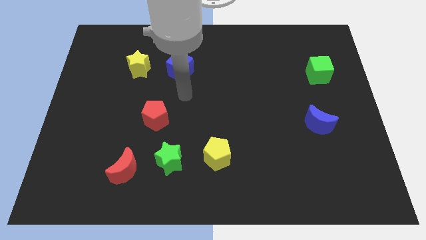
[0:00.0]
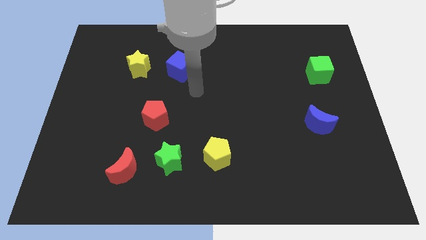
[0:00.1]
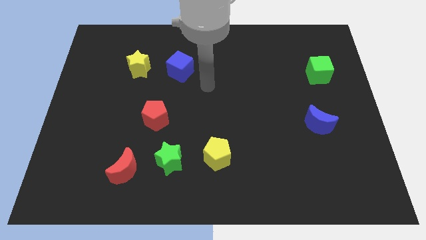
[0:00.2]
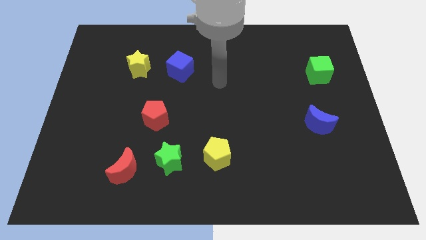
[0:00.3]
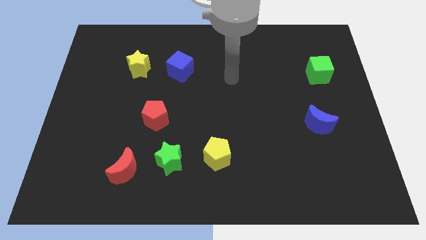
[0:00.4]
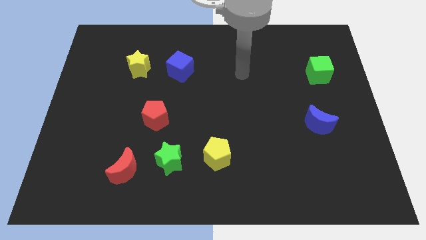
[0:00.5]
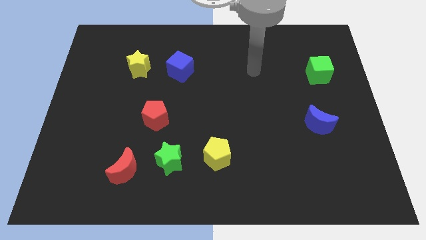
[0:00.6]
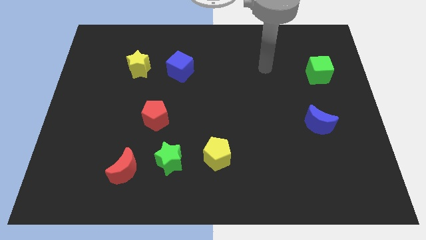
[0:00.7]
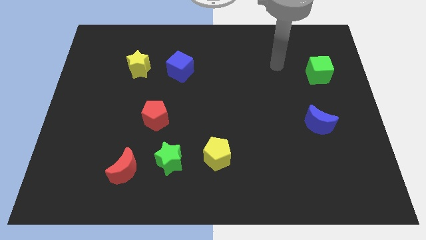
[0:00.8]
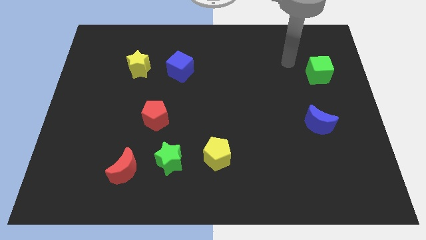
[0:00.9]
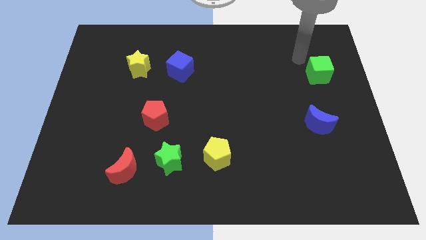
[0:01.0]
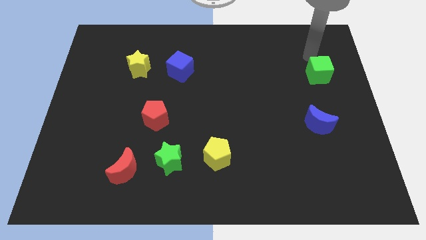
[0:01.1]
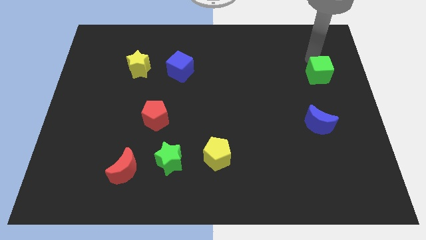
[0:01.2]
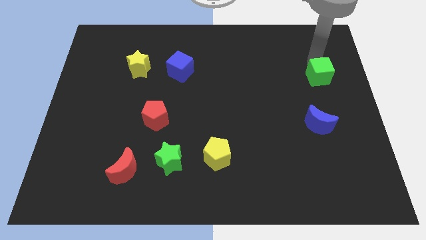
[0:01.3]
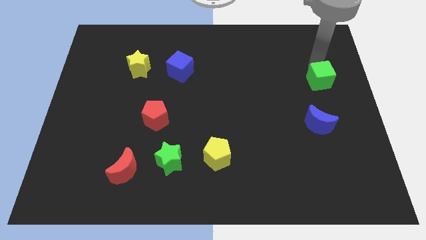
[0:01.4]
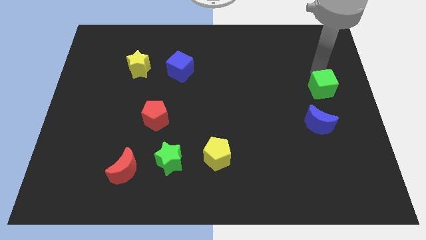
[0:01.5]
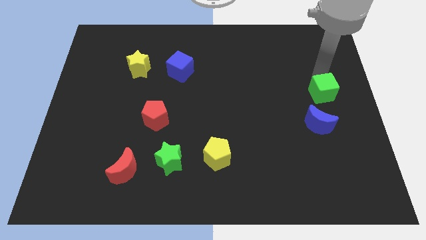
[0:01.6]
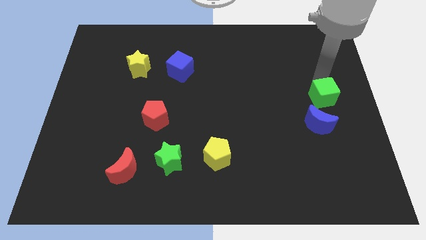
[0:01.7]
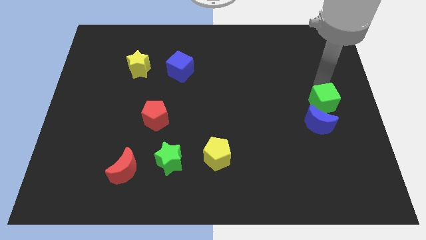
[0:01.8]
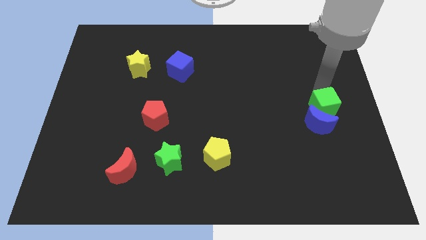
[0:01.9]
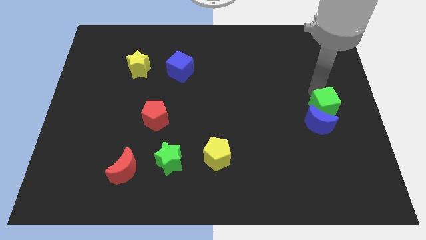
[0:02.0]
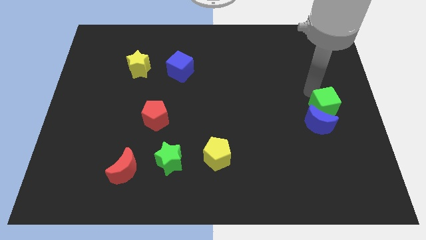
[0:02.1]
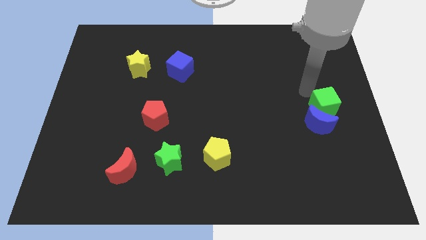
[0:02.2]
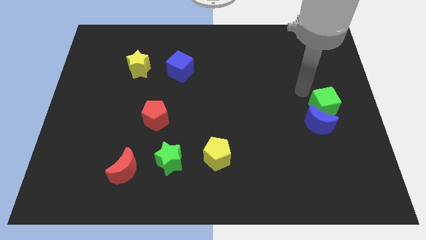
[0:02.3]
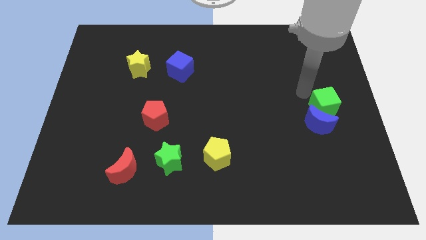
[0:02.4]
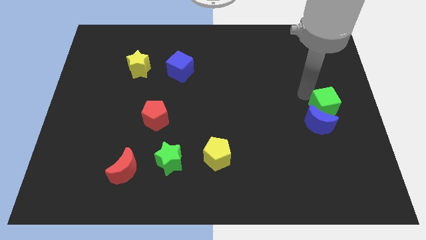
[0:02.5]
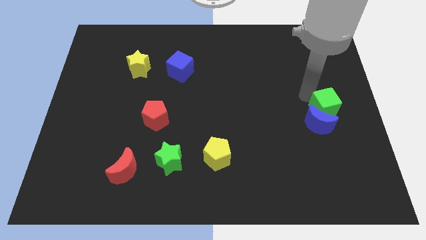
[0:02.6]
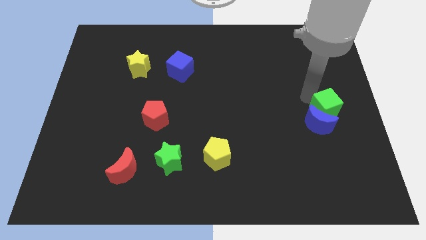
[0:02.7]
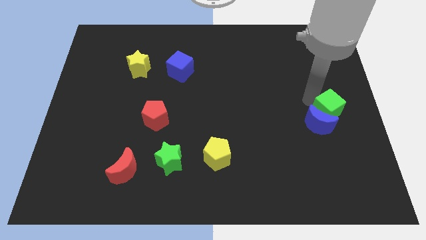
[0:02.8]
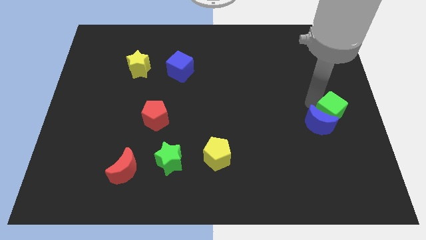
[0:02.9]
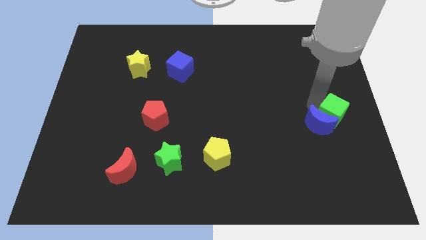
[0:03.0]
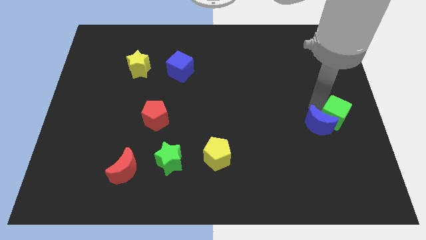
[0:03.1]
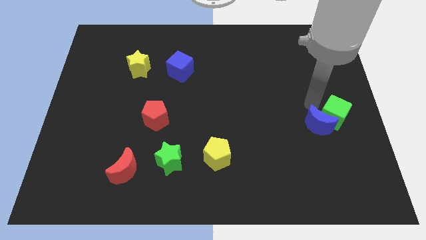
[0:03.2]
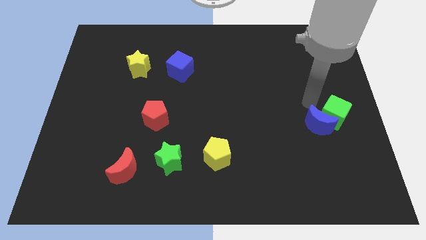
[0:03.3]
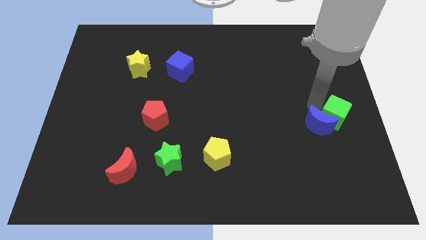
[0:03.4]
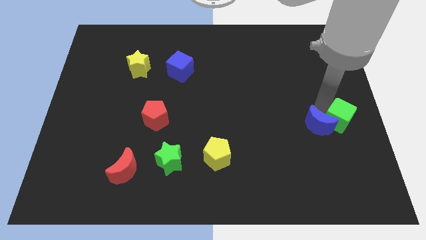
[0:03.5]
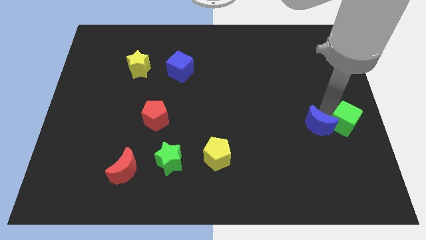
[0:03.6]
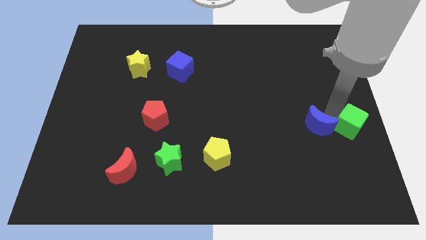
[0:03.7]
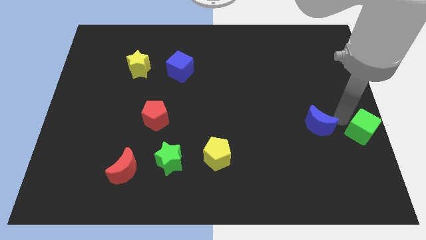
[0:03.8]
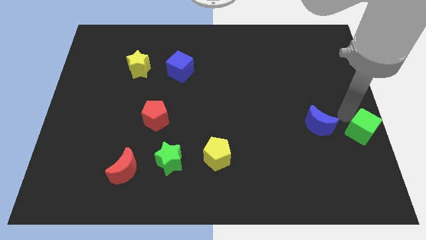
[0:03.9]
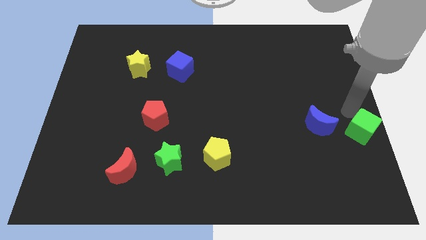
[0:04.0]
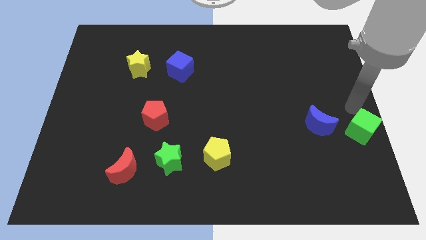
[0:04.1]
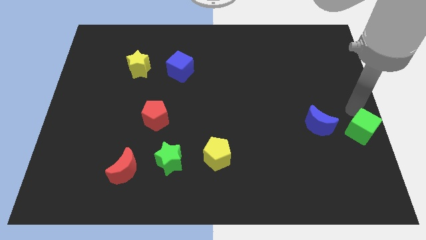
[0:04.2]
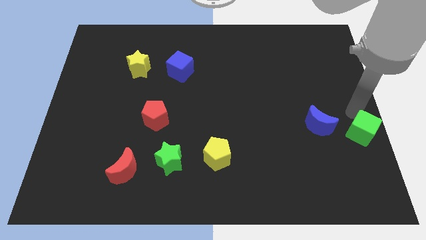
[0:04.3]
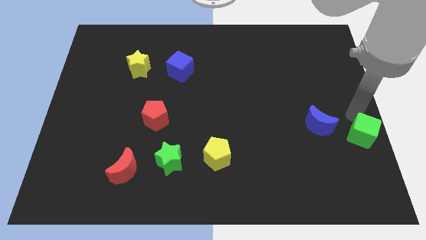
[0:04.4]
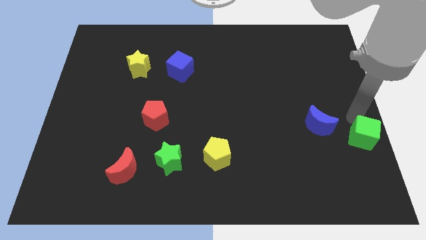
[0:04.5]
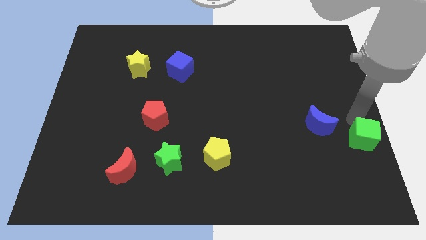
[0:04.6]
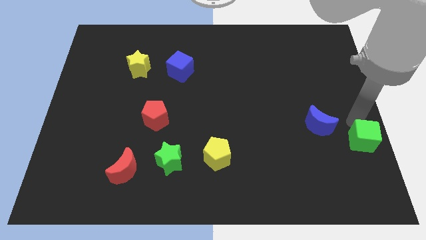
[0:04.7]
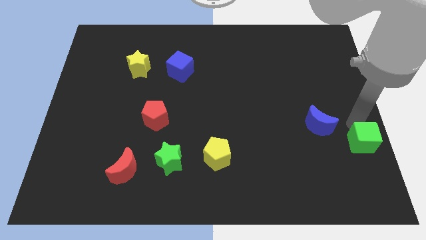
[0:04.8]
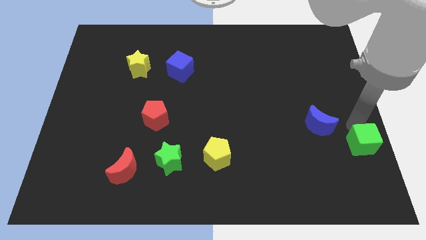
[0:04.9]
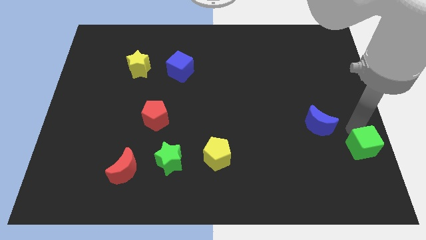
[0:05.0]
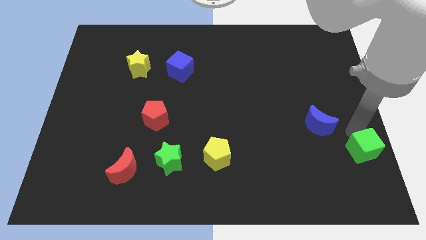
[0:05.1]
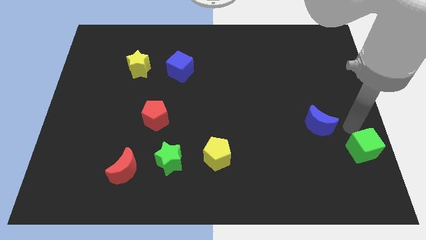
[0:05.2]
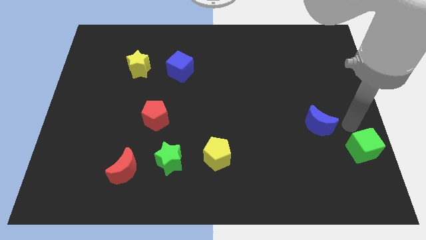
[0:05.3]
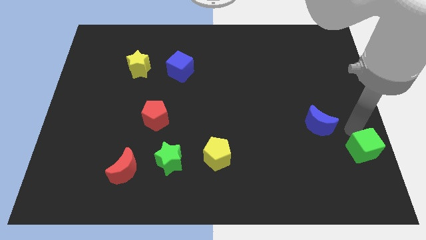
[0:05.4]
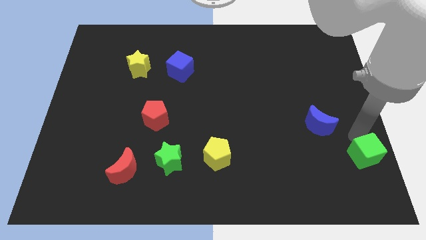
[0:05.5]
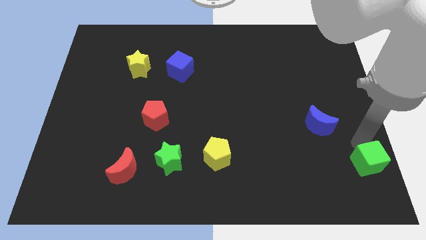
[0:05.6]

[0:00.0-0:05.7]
slide the green cube to the bottom right of the board

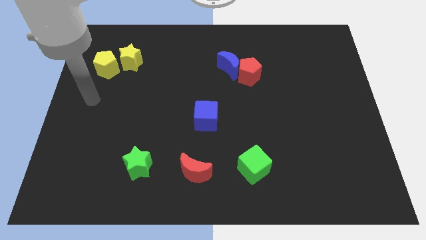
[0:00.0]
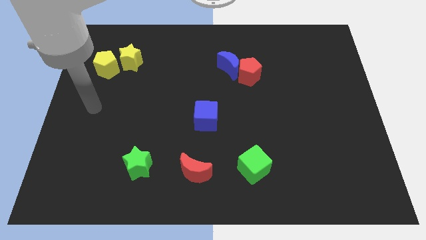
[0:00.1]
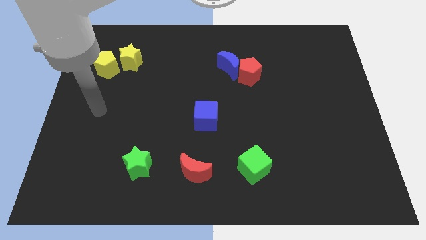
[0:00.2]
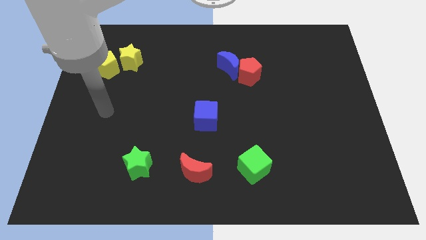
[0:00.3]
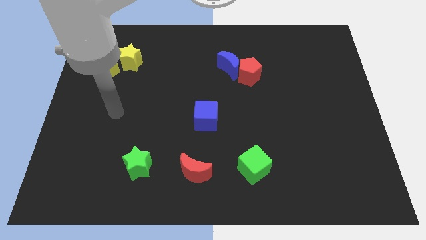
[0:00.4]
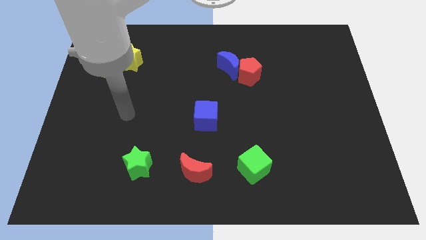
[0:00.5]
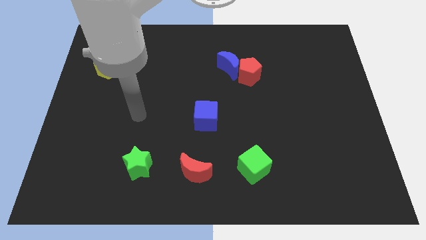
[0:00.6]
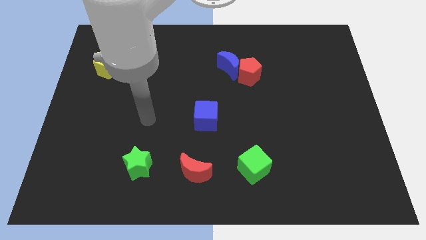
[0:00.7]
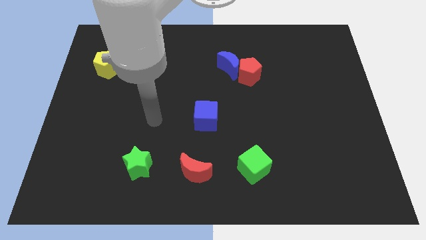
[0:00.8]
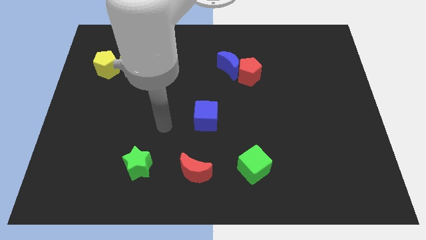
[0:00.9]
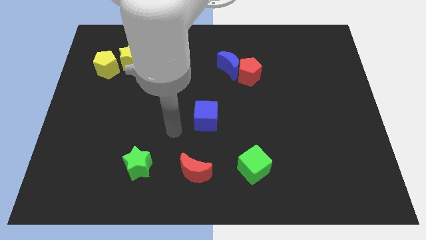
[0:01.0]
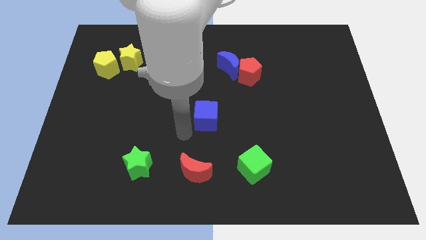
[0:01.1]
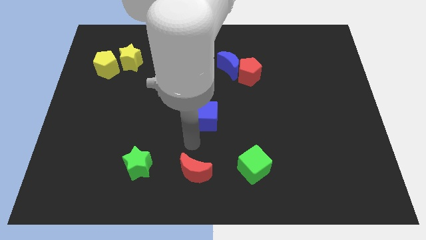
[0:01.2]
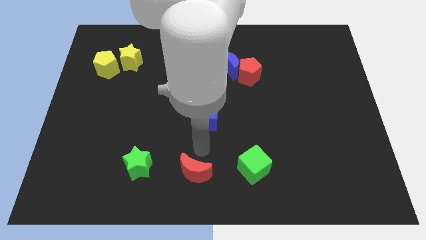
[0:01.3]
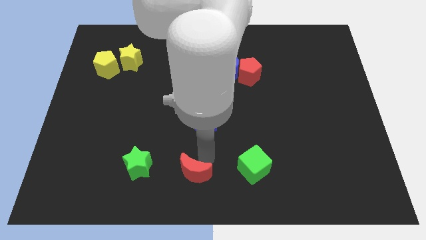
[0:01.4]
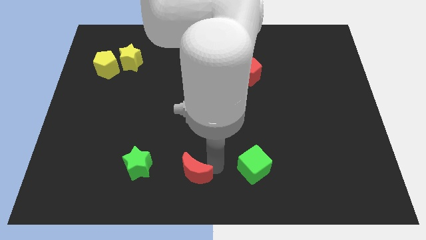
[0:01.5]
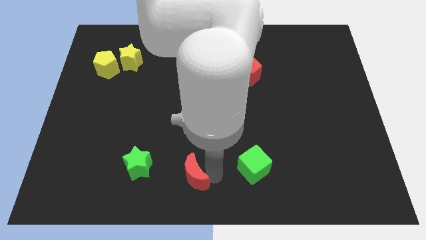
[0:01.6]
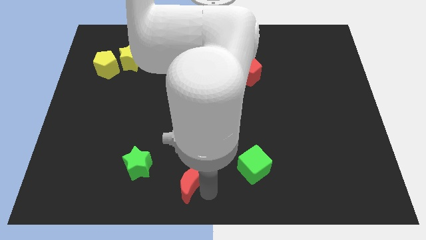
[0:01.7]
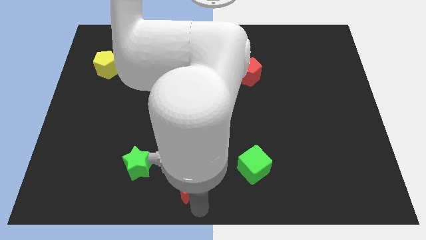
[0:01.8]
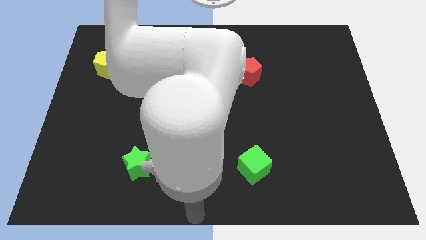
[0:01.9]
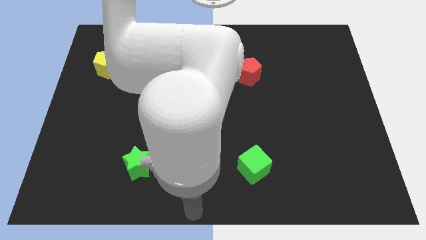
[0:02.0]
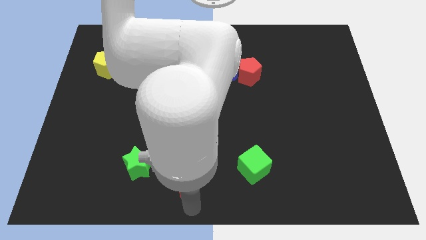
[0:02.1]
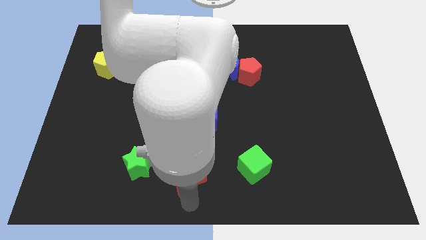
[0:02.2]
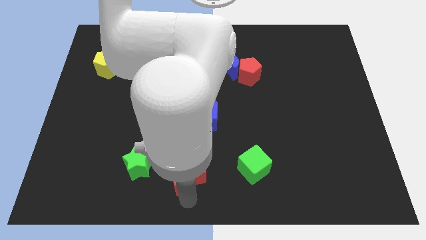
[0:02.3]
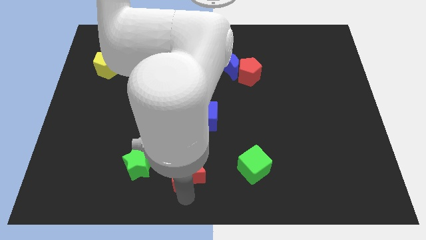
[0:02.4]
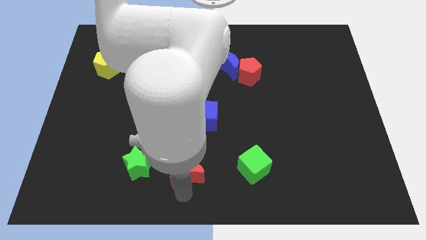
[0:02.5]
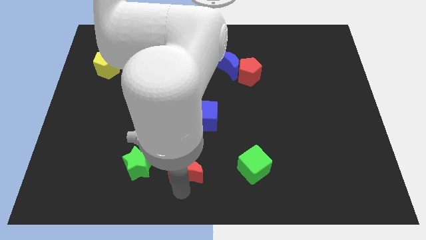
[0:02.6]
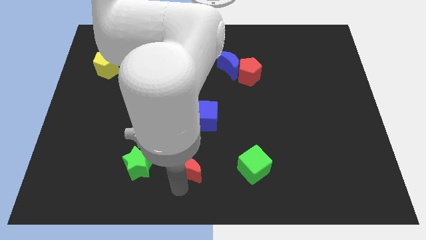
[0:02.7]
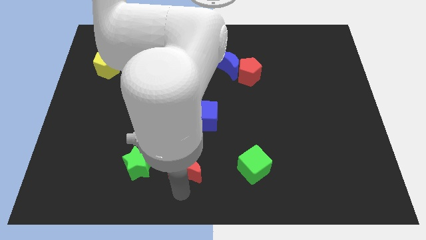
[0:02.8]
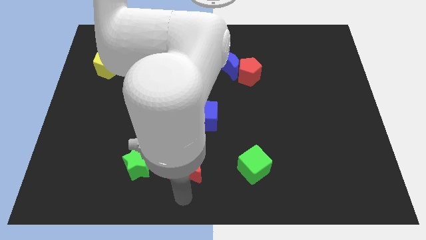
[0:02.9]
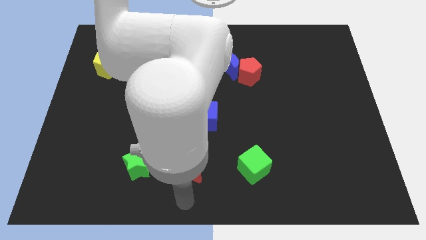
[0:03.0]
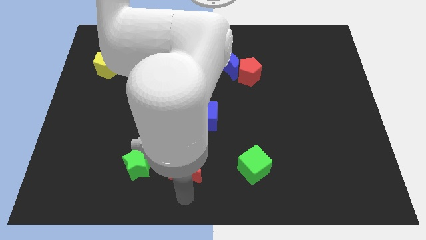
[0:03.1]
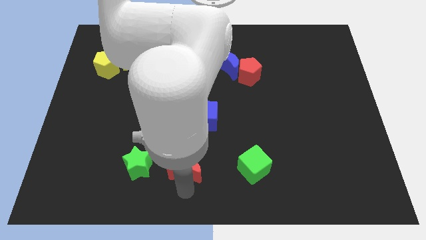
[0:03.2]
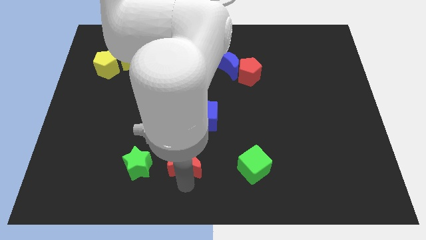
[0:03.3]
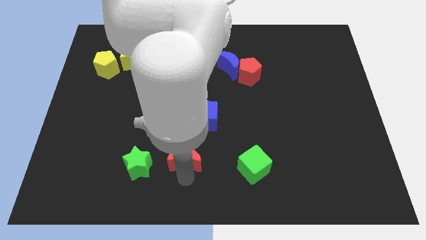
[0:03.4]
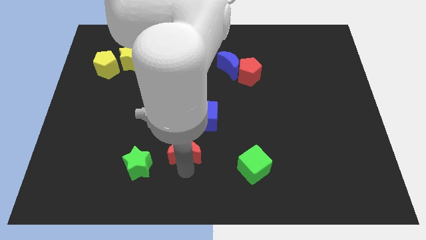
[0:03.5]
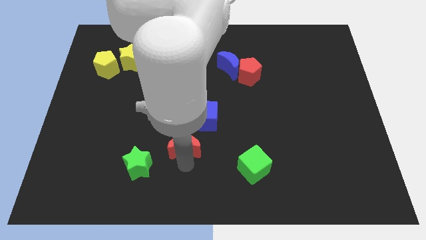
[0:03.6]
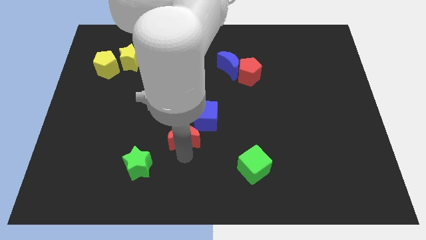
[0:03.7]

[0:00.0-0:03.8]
move the red moon to the middle
